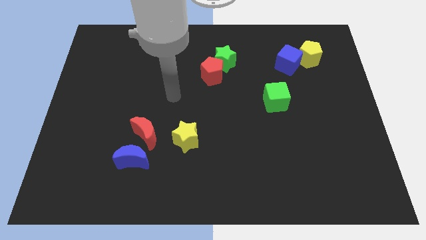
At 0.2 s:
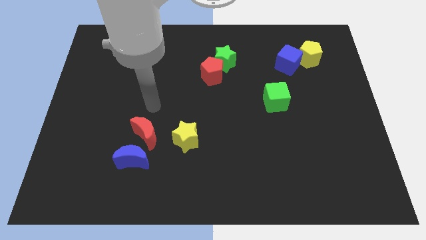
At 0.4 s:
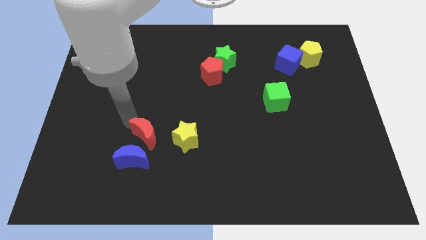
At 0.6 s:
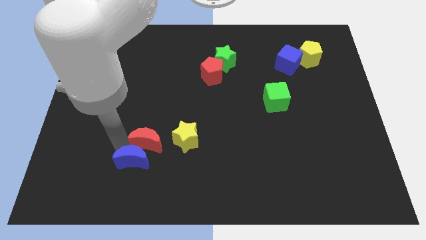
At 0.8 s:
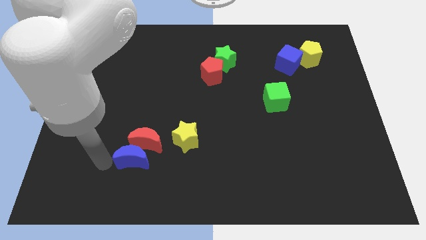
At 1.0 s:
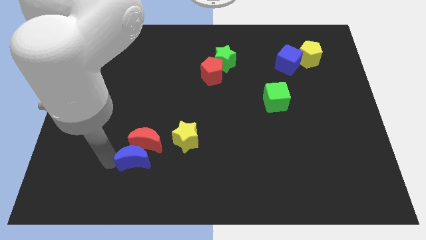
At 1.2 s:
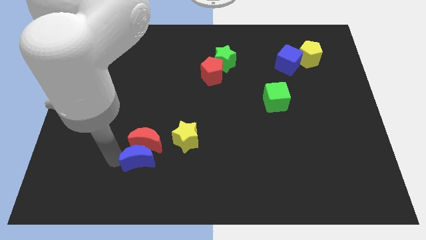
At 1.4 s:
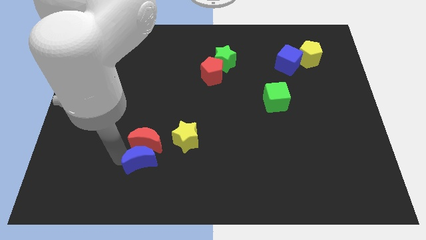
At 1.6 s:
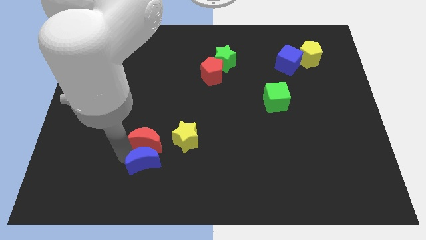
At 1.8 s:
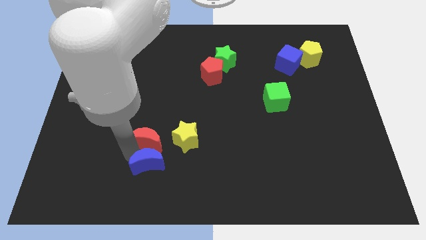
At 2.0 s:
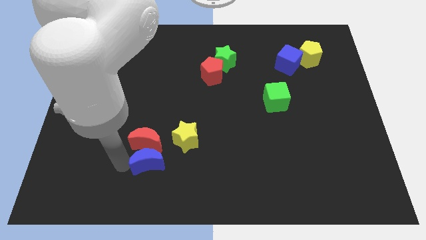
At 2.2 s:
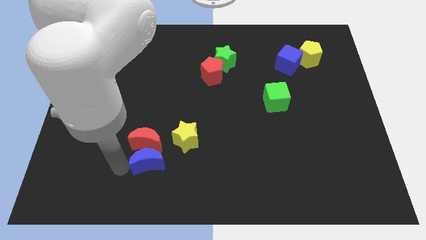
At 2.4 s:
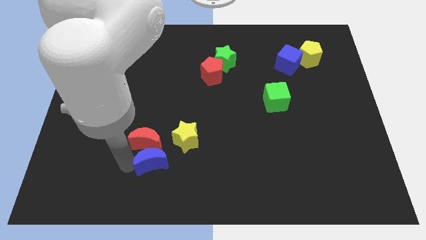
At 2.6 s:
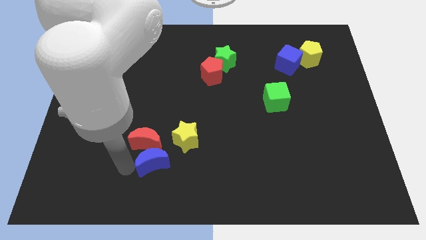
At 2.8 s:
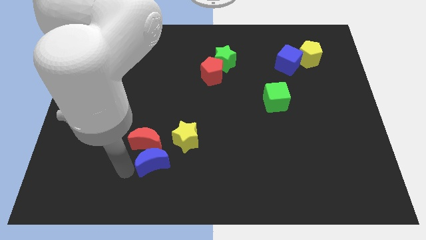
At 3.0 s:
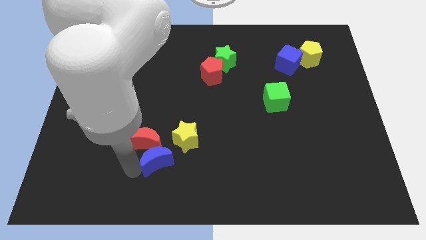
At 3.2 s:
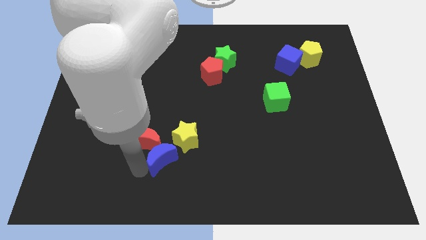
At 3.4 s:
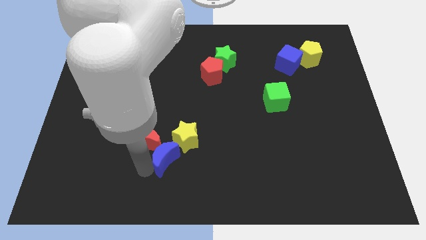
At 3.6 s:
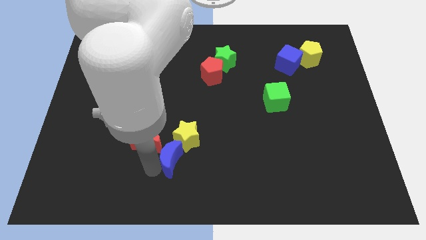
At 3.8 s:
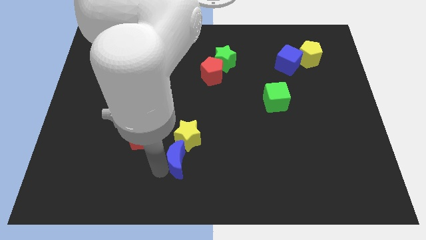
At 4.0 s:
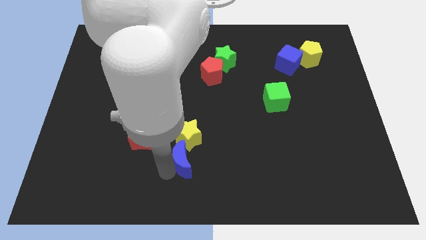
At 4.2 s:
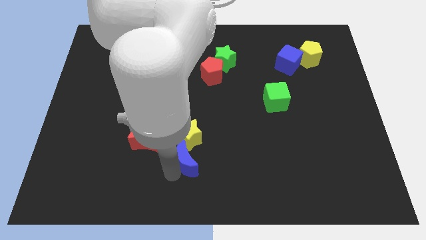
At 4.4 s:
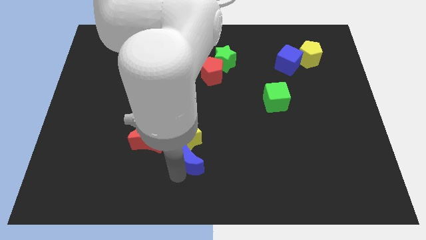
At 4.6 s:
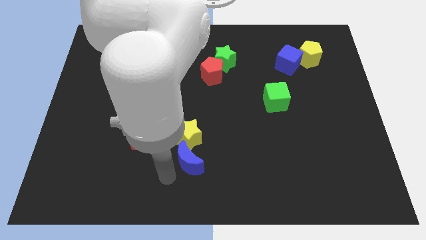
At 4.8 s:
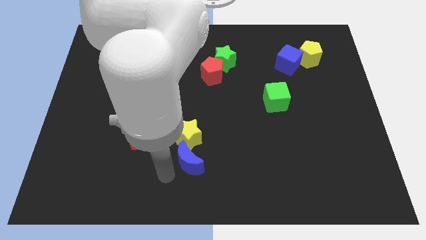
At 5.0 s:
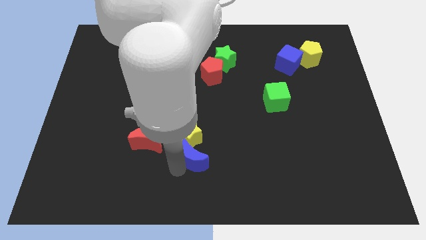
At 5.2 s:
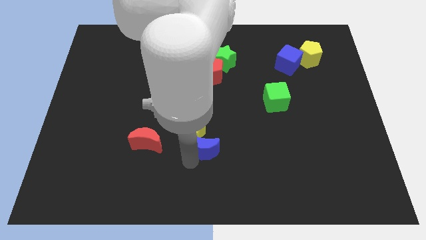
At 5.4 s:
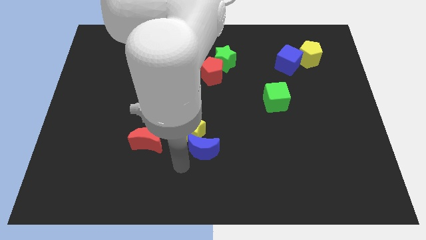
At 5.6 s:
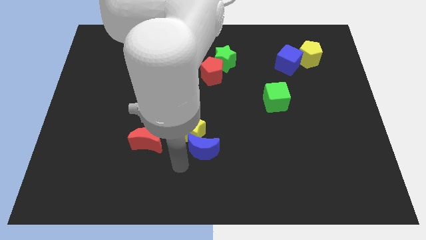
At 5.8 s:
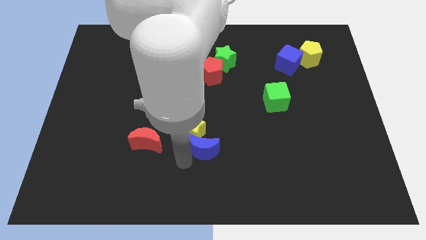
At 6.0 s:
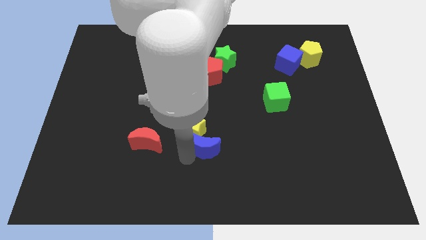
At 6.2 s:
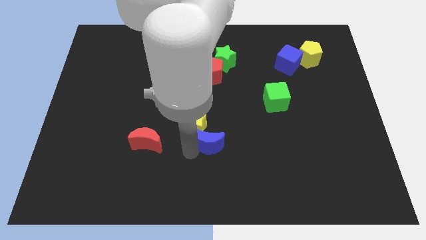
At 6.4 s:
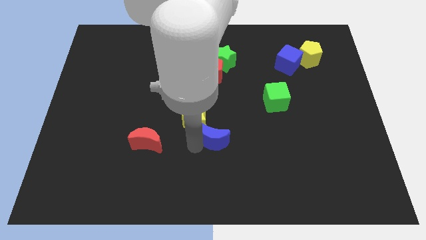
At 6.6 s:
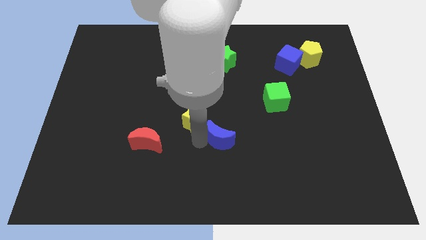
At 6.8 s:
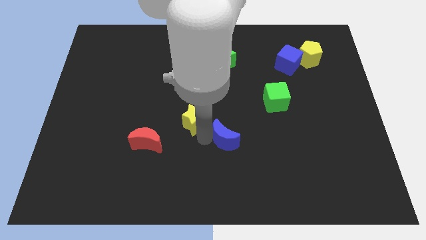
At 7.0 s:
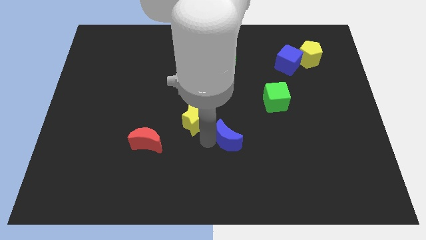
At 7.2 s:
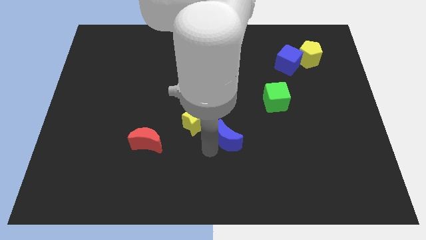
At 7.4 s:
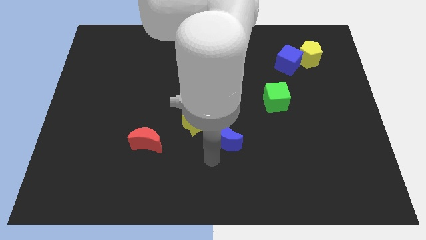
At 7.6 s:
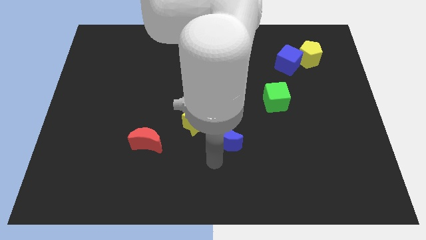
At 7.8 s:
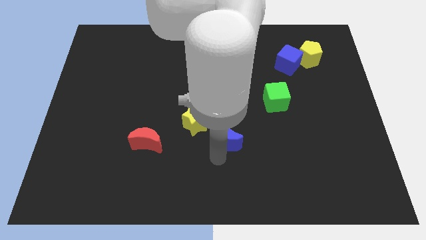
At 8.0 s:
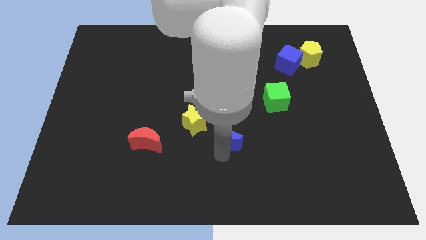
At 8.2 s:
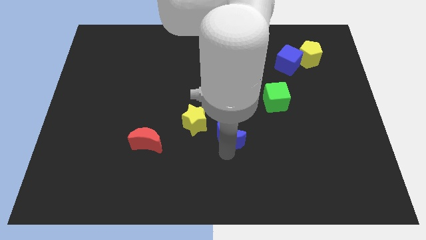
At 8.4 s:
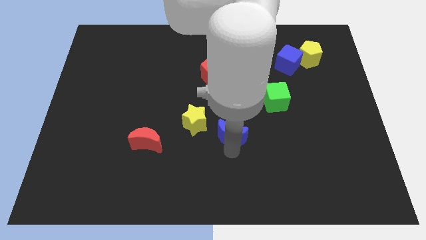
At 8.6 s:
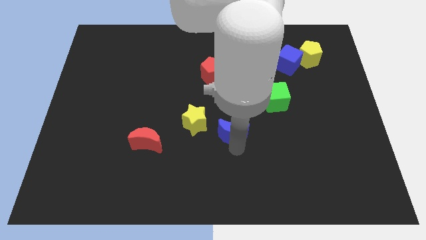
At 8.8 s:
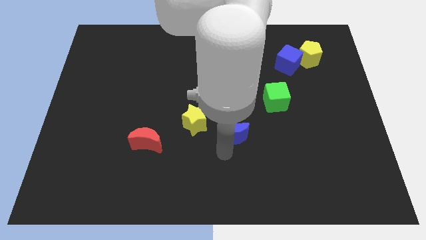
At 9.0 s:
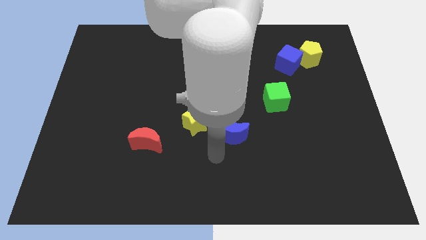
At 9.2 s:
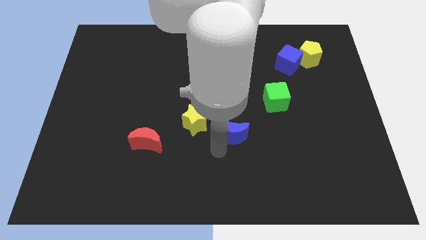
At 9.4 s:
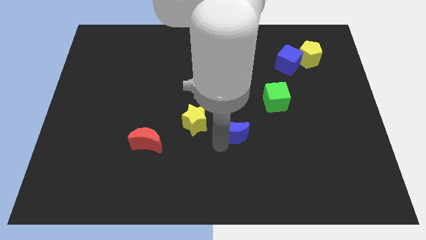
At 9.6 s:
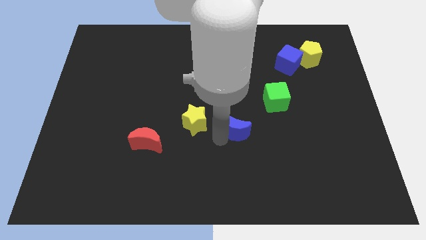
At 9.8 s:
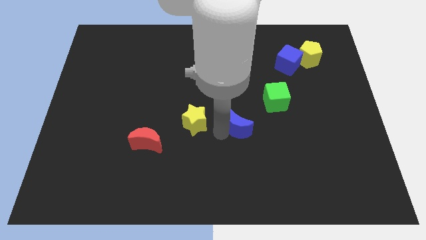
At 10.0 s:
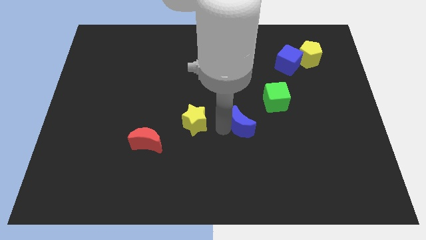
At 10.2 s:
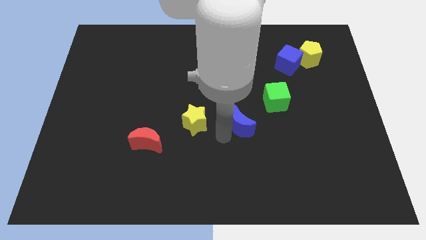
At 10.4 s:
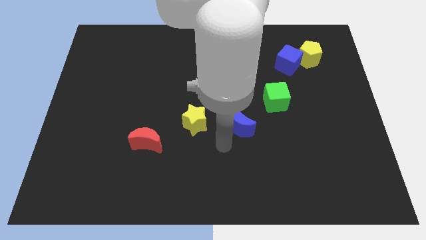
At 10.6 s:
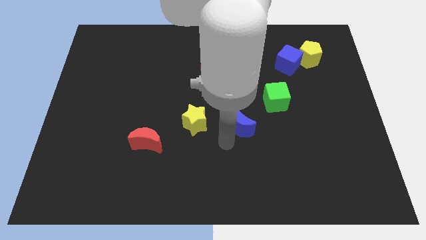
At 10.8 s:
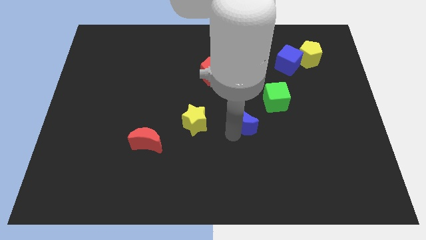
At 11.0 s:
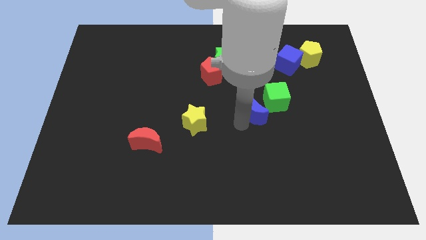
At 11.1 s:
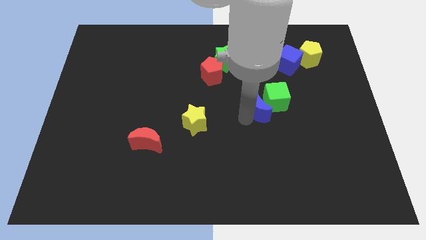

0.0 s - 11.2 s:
slide the blue moon next to the green cube

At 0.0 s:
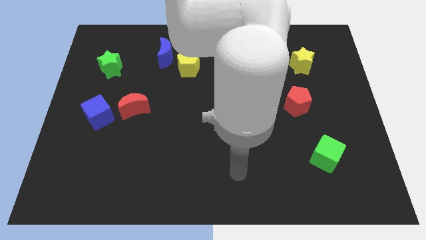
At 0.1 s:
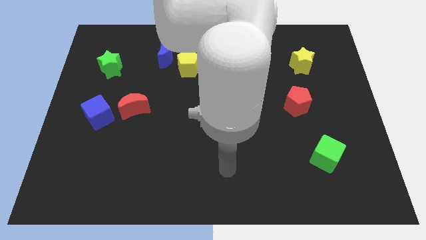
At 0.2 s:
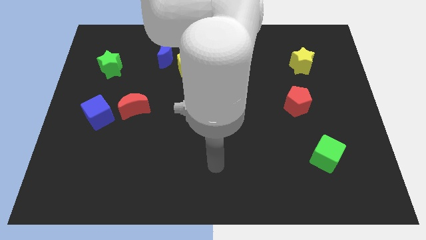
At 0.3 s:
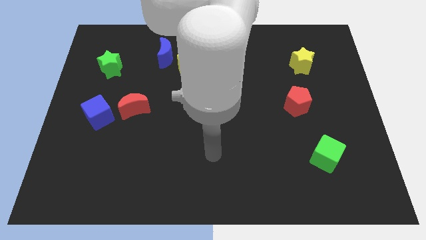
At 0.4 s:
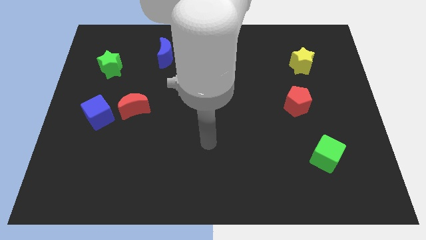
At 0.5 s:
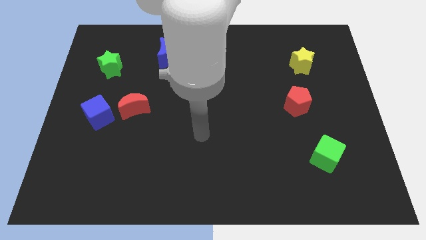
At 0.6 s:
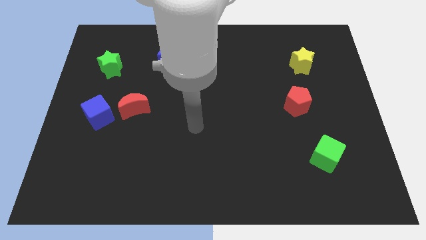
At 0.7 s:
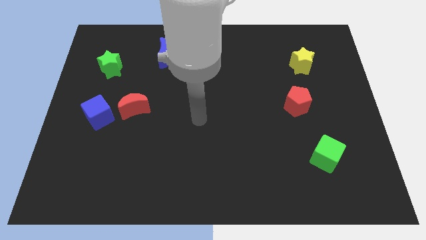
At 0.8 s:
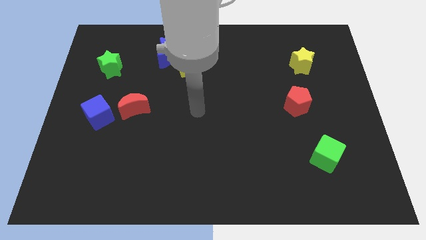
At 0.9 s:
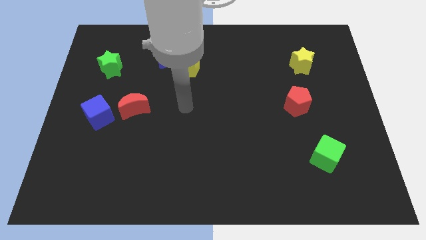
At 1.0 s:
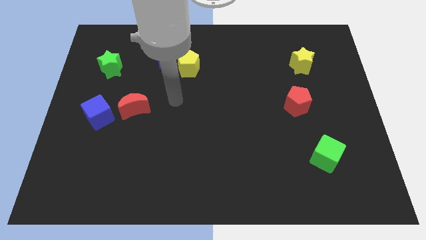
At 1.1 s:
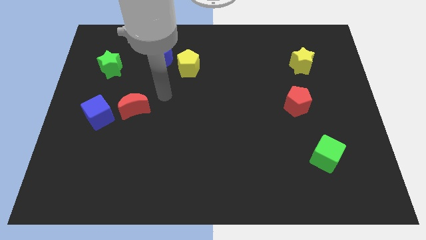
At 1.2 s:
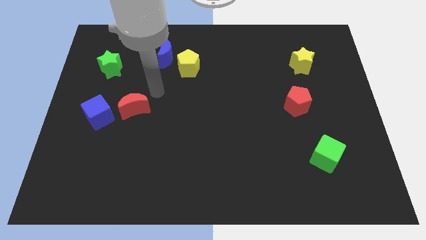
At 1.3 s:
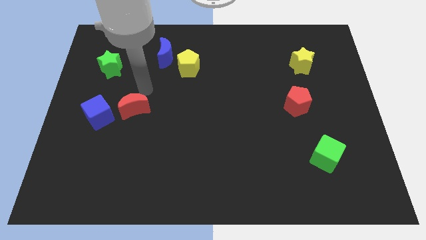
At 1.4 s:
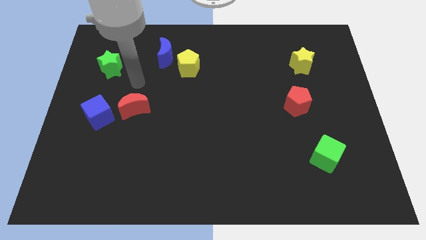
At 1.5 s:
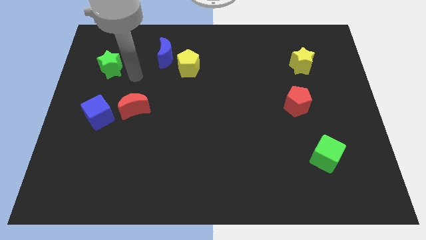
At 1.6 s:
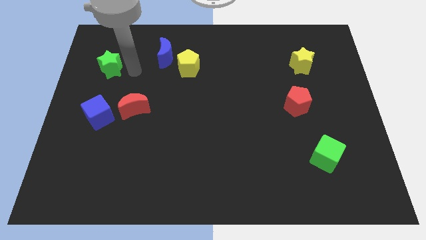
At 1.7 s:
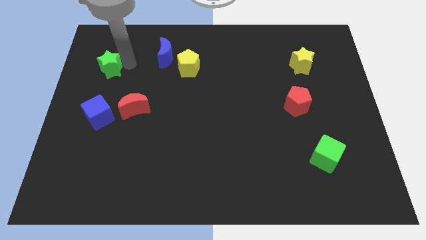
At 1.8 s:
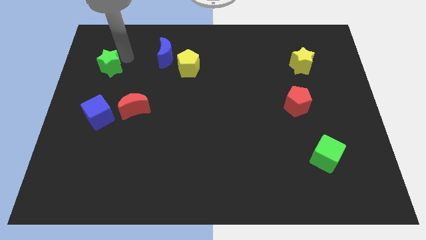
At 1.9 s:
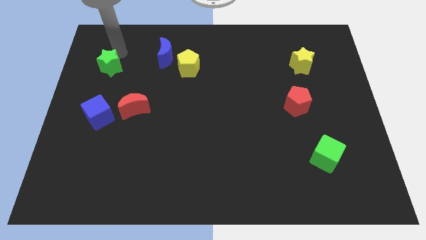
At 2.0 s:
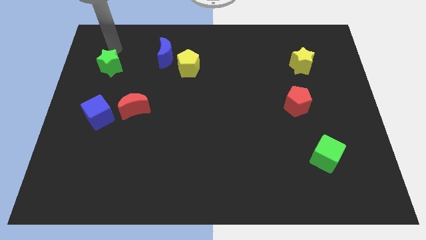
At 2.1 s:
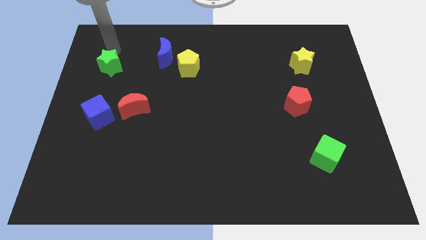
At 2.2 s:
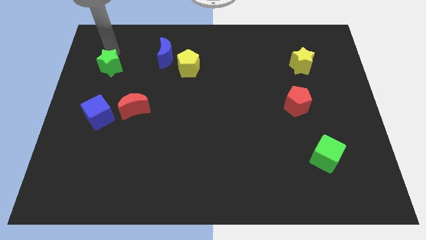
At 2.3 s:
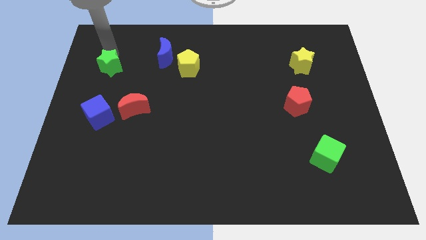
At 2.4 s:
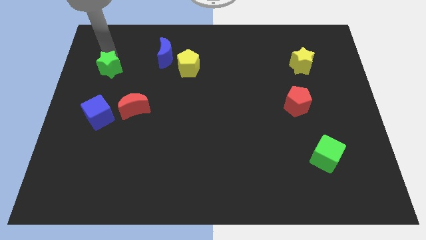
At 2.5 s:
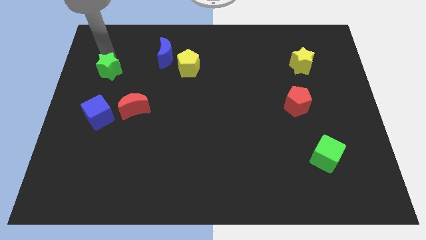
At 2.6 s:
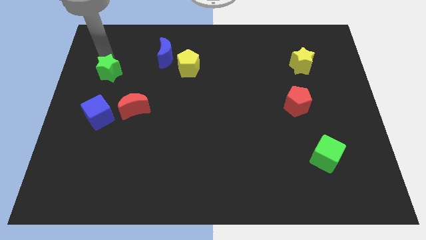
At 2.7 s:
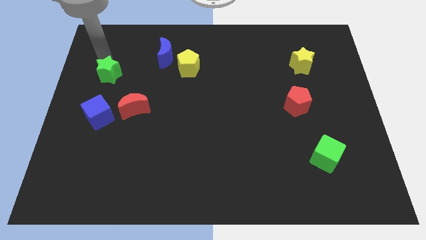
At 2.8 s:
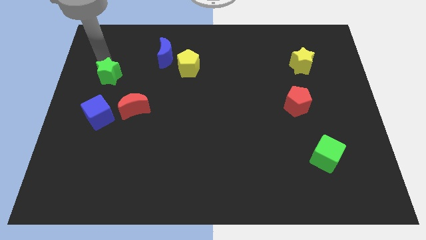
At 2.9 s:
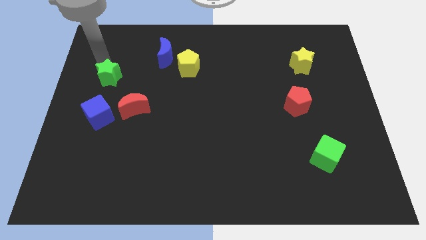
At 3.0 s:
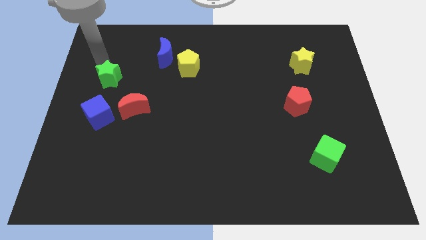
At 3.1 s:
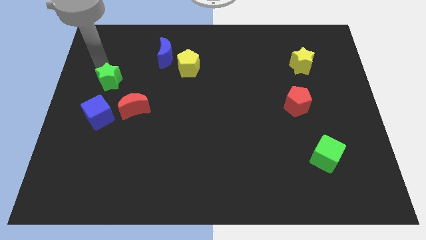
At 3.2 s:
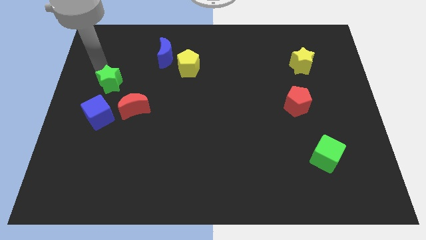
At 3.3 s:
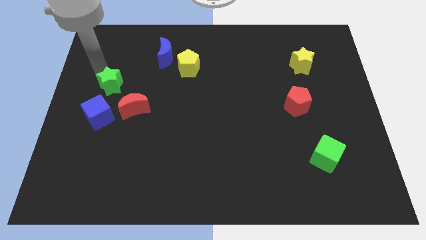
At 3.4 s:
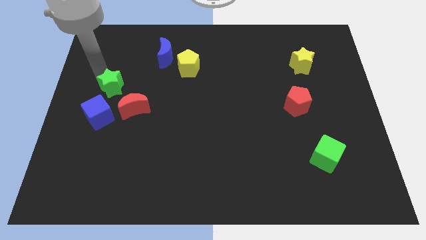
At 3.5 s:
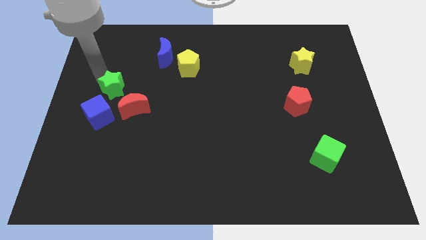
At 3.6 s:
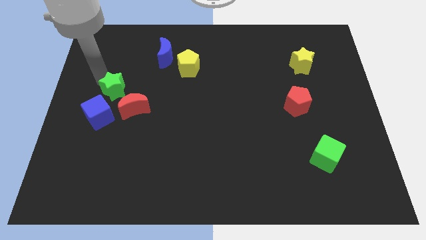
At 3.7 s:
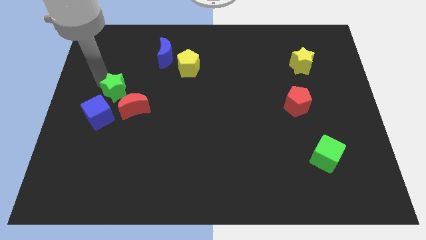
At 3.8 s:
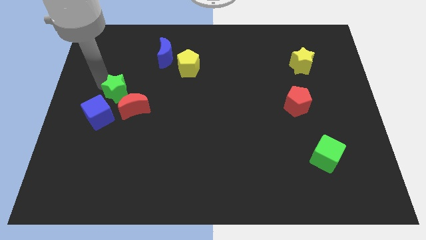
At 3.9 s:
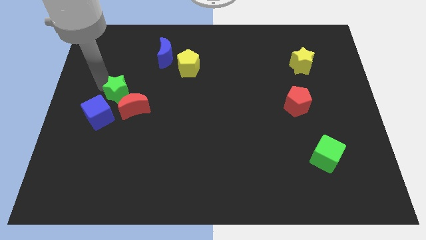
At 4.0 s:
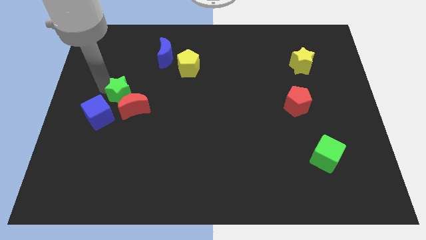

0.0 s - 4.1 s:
push the green star towards the red moon
